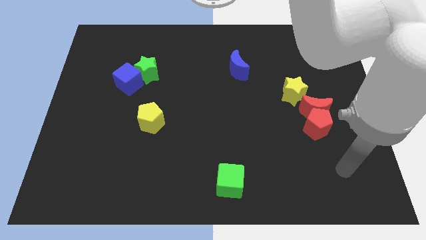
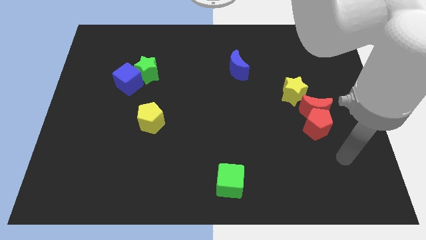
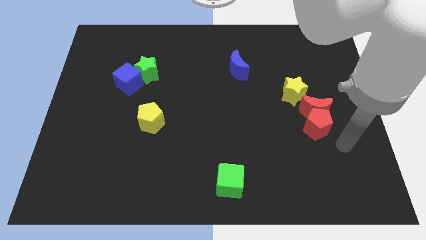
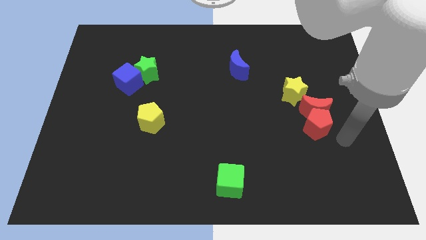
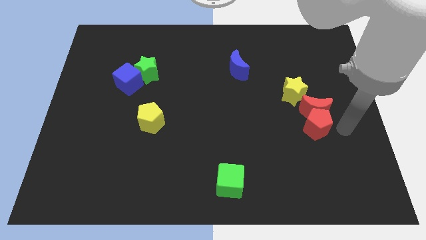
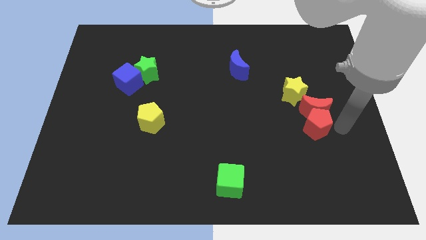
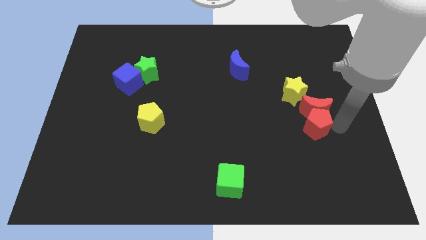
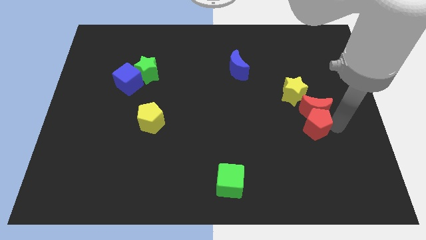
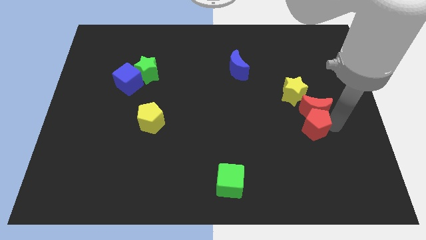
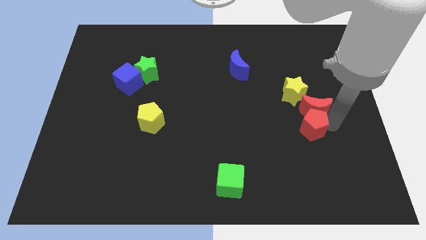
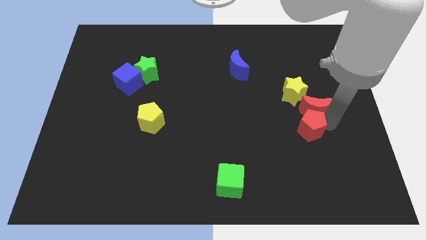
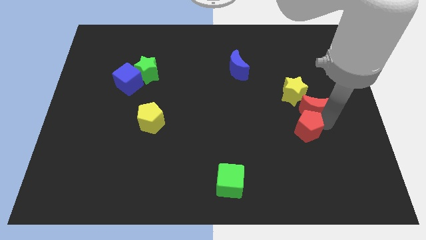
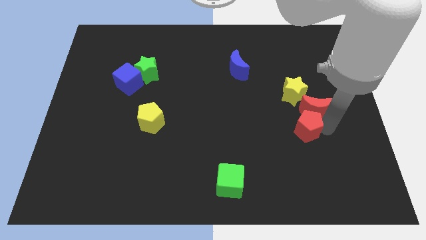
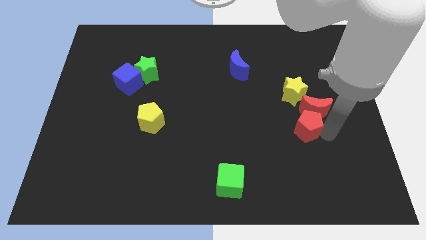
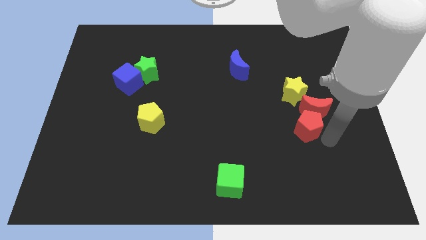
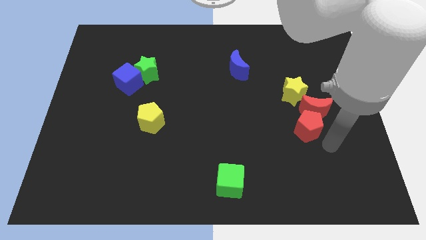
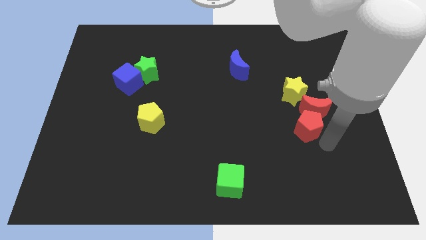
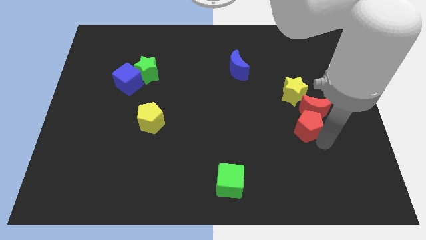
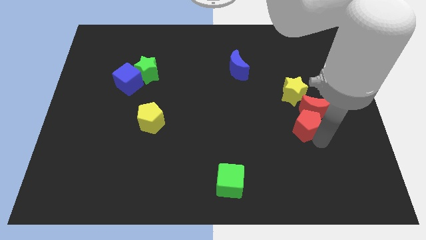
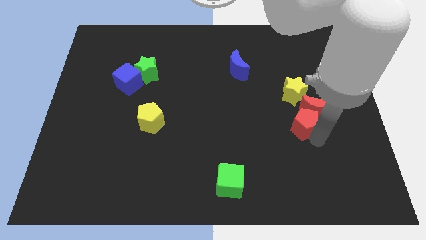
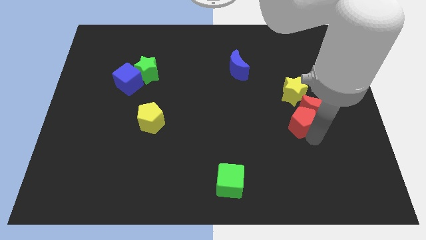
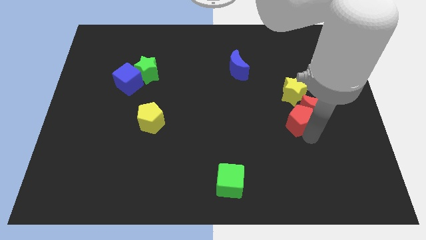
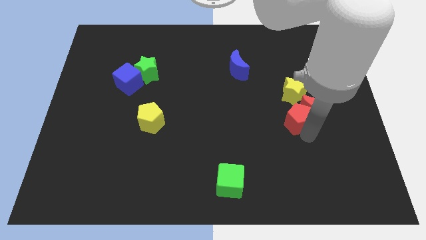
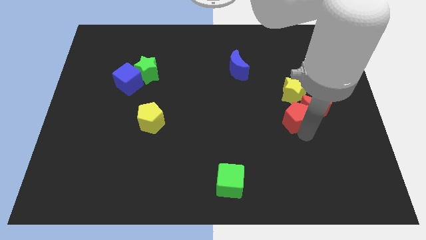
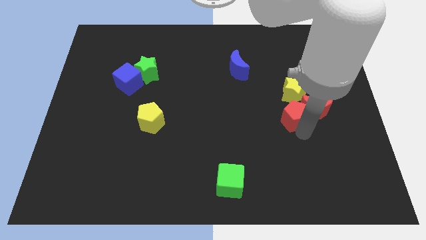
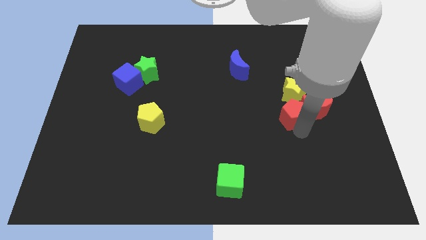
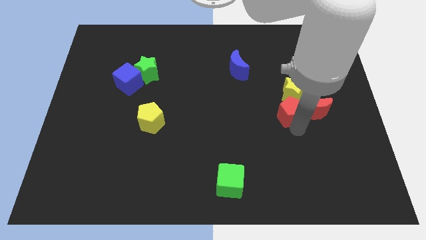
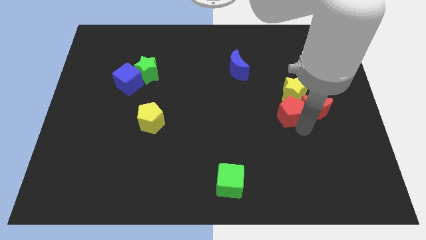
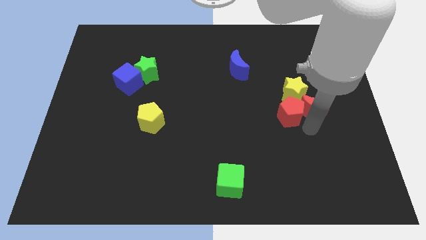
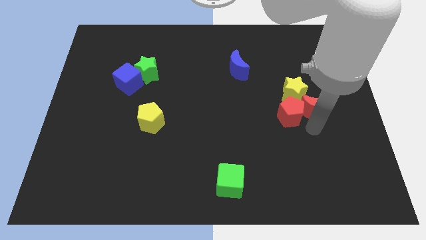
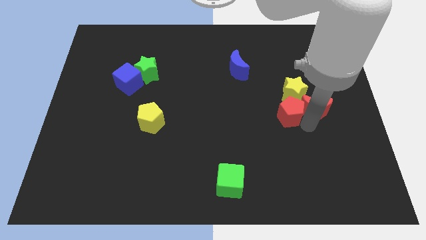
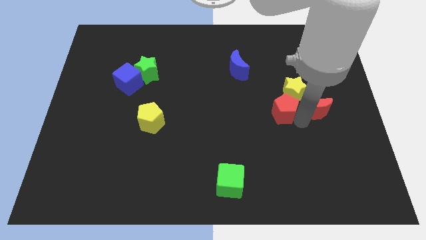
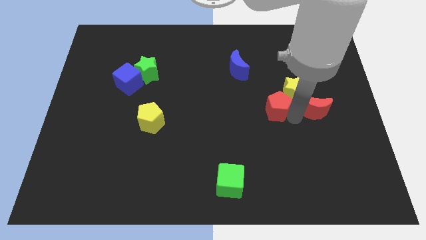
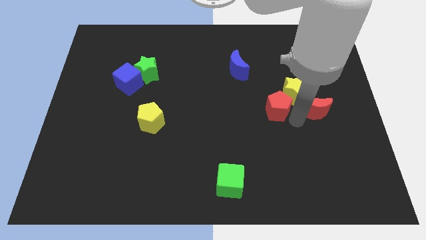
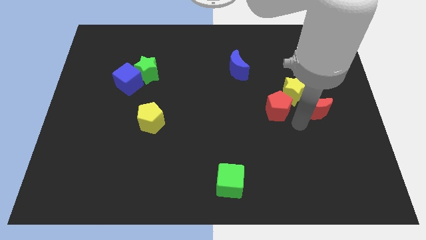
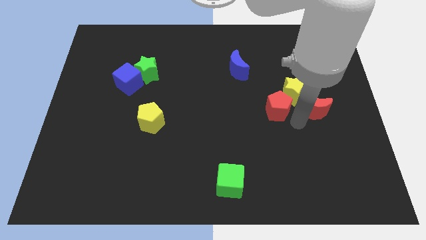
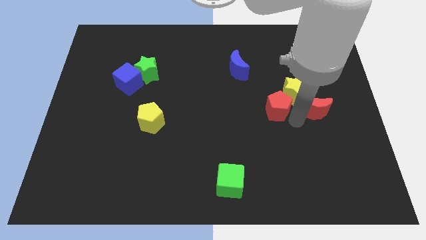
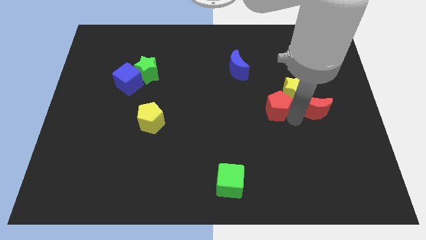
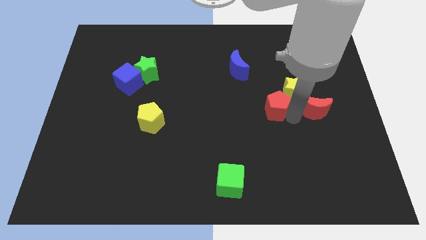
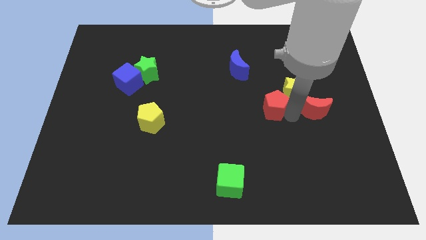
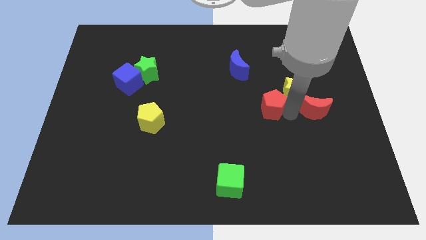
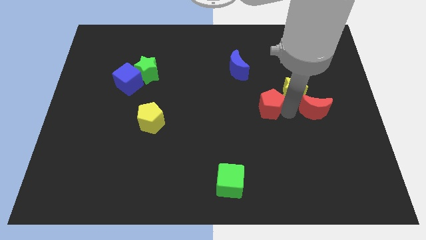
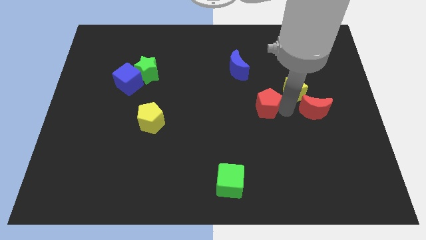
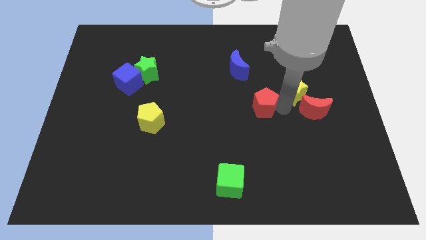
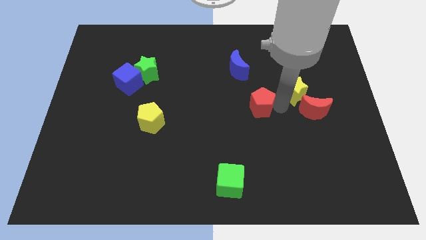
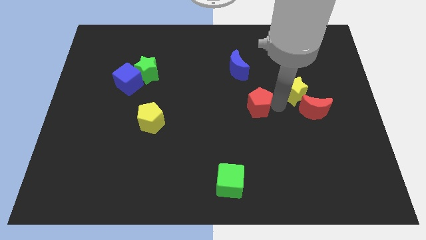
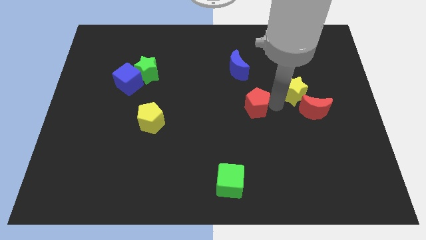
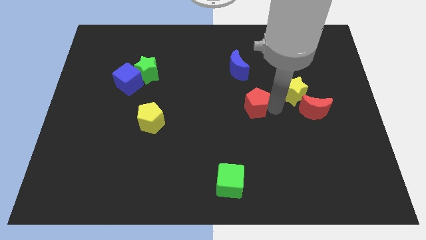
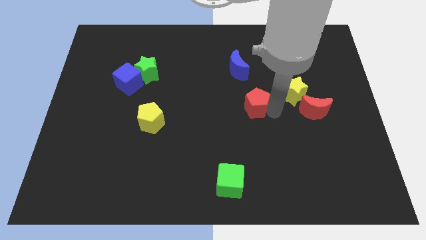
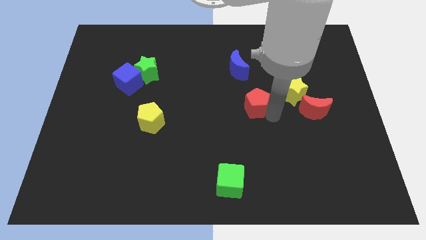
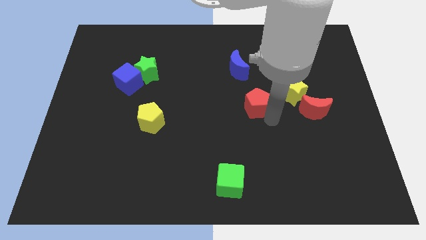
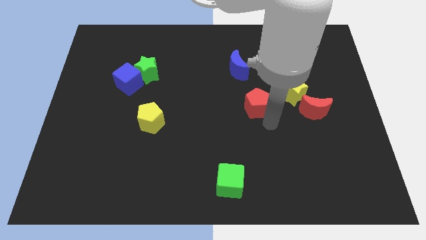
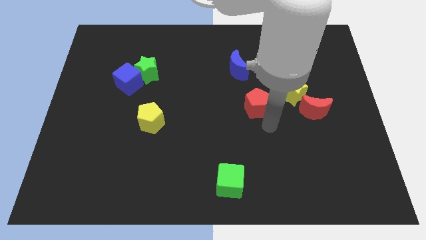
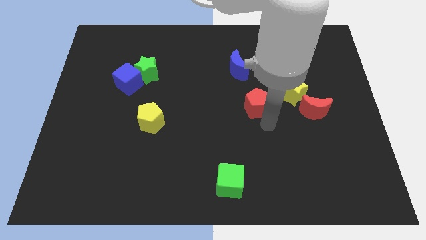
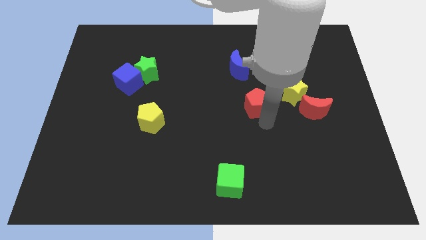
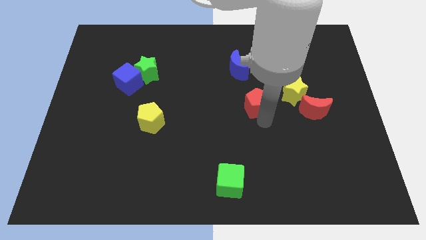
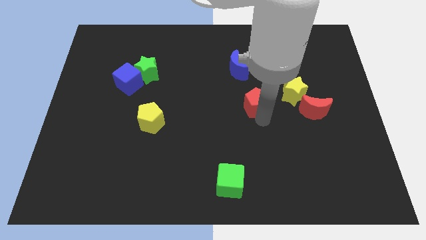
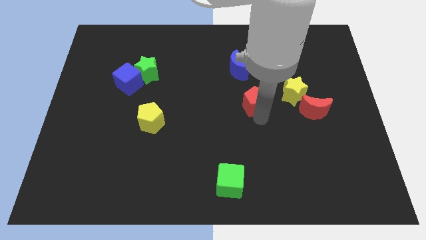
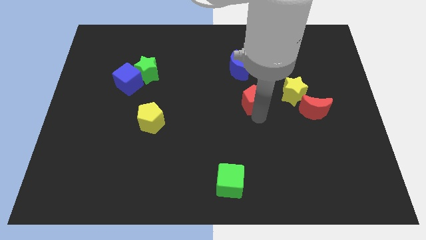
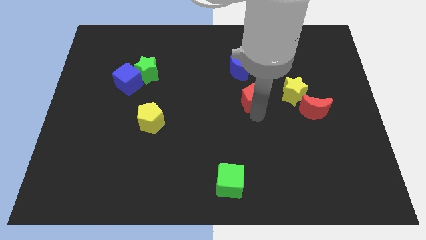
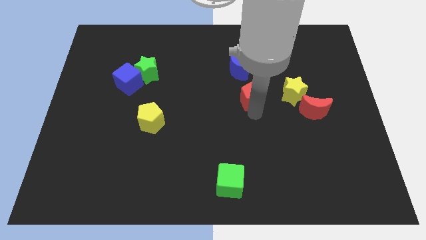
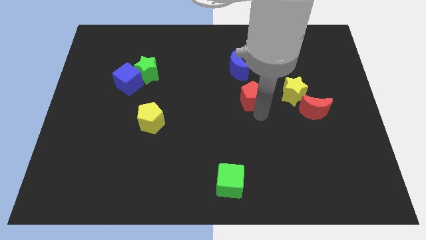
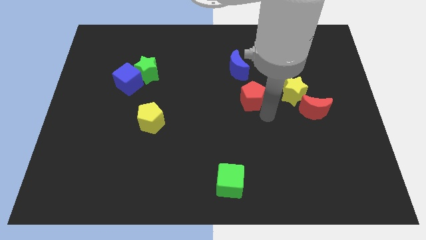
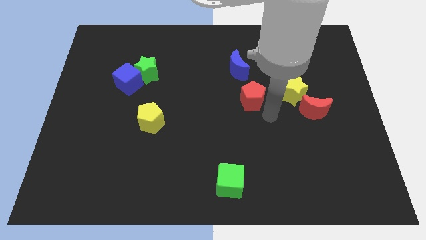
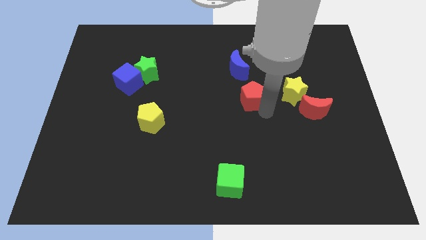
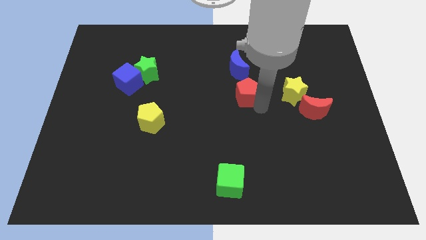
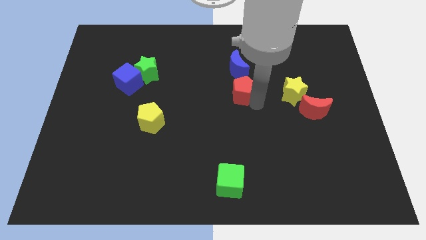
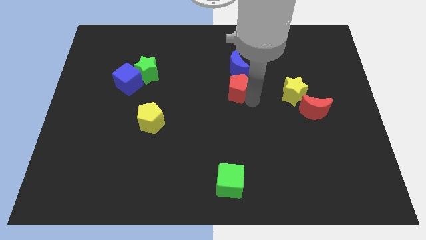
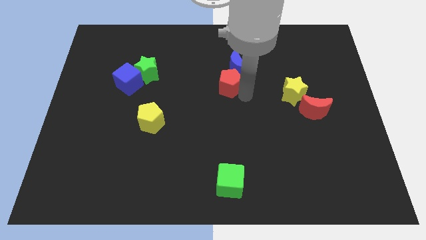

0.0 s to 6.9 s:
move the red pentagon up and to the left

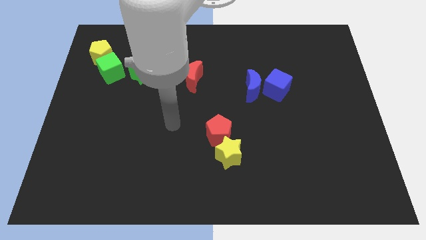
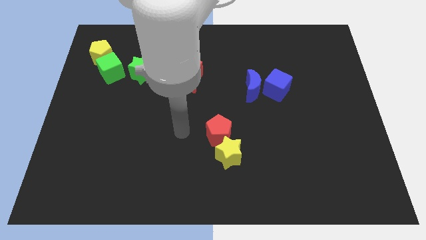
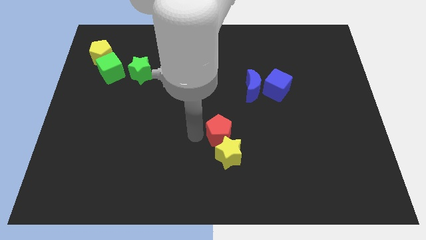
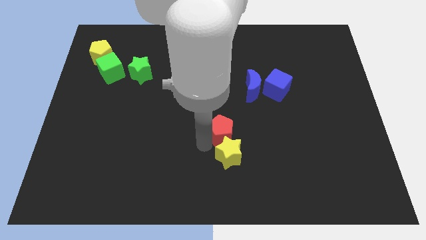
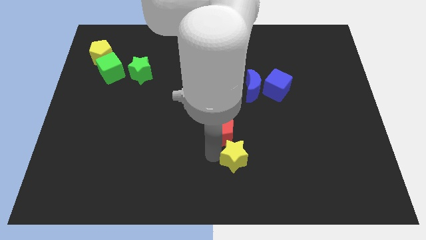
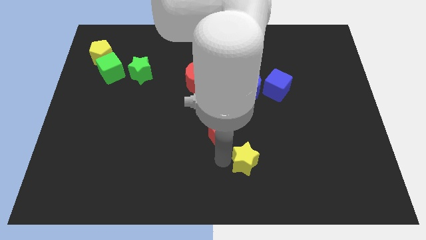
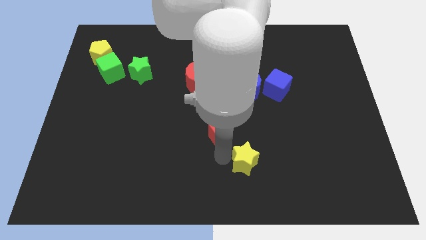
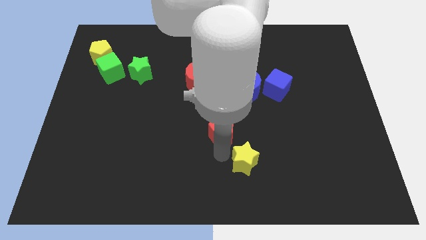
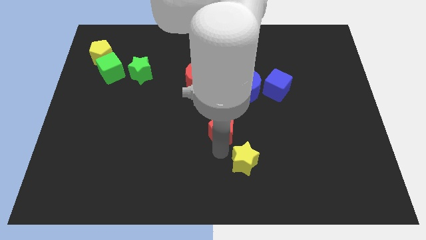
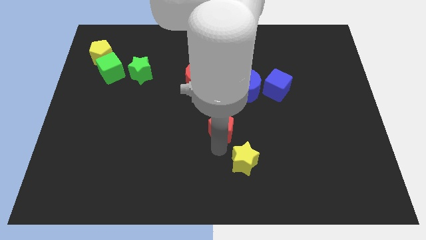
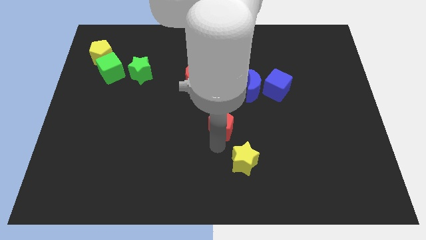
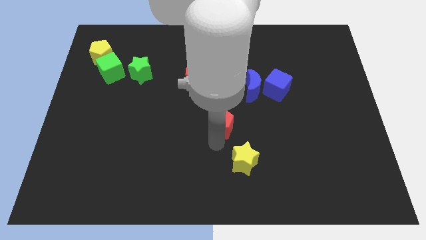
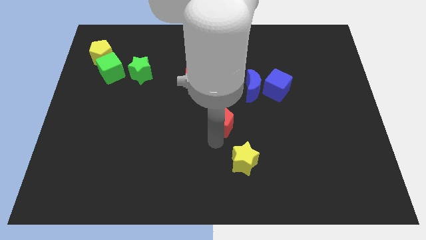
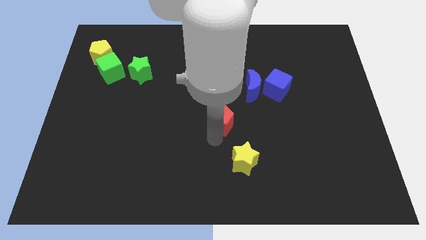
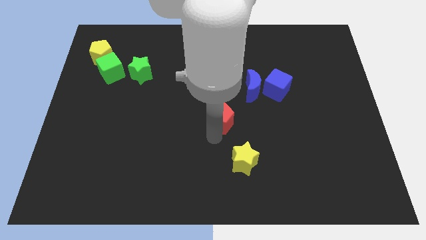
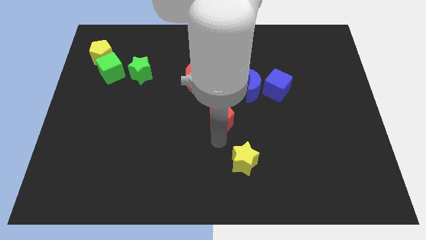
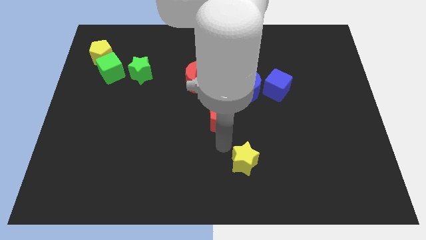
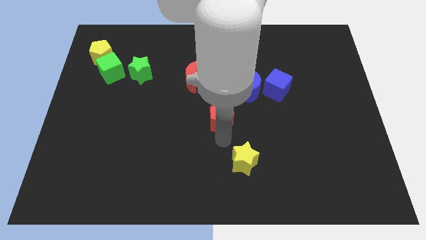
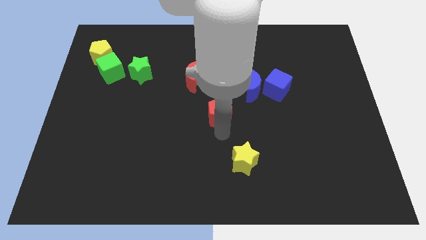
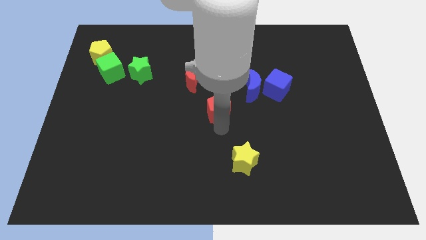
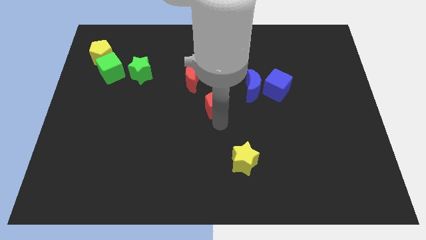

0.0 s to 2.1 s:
slightly slide the red pentagon up
